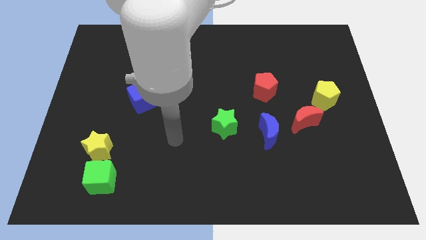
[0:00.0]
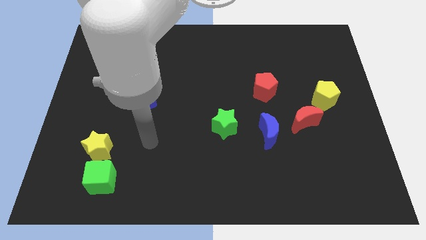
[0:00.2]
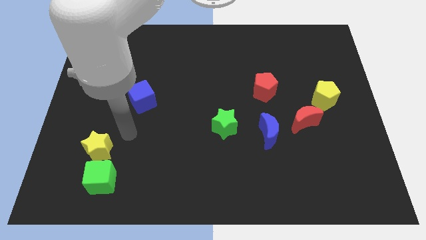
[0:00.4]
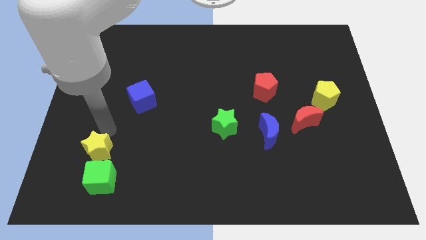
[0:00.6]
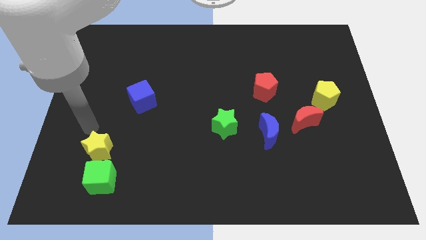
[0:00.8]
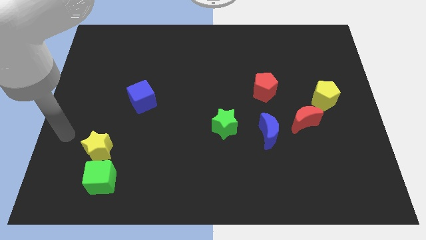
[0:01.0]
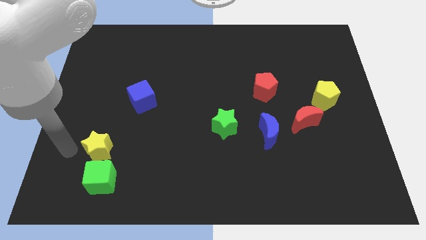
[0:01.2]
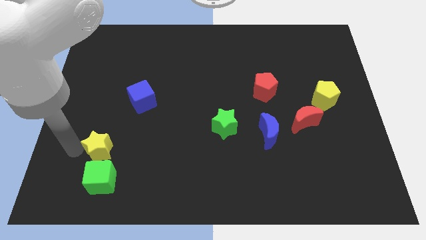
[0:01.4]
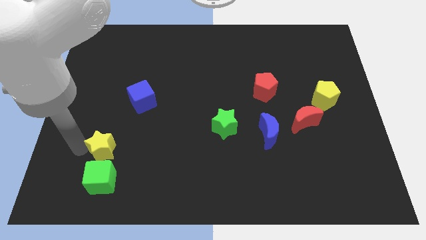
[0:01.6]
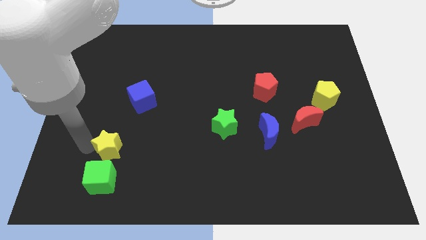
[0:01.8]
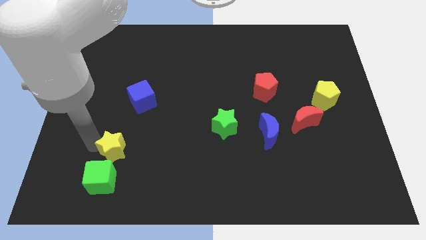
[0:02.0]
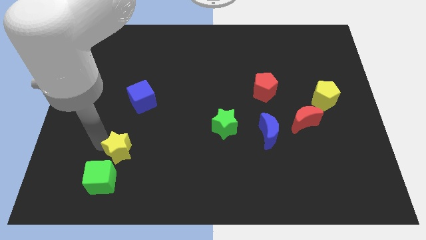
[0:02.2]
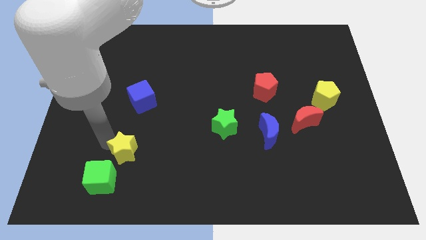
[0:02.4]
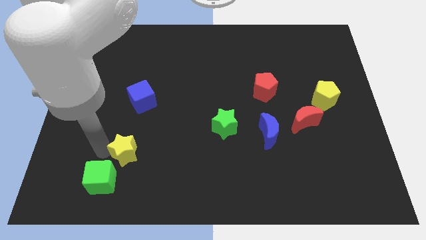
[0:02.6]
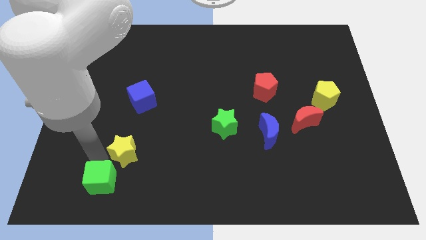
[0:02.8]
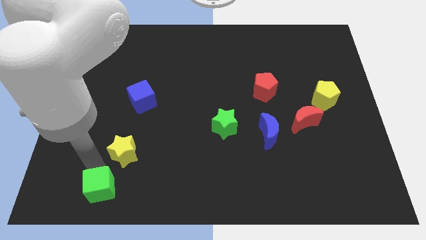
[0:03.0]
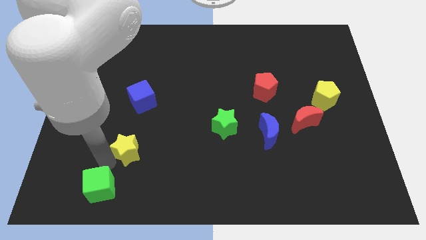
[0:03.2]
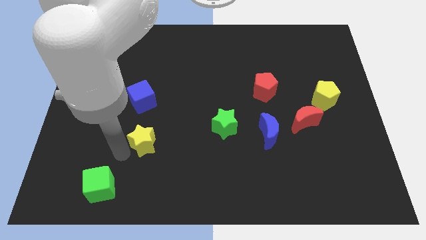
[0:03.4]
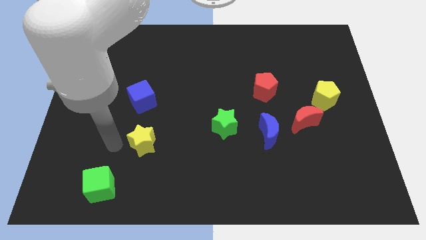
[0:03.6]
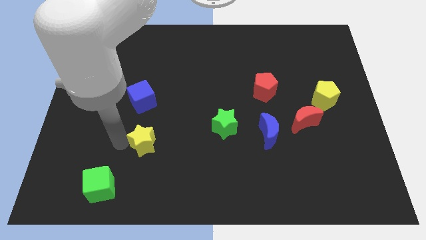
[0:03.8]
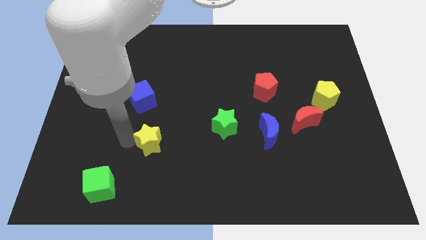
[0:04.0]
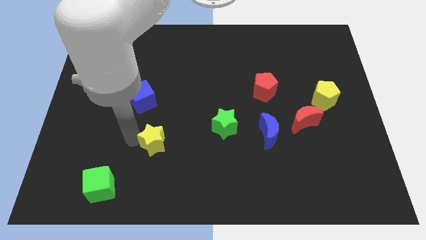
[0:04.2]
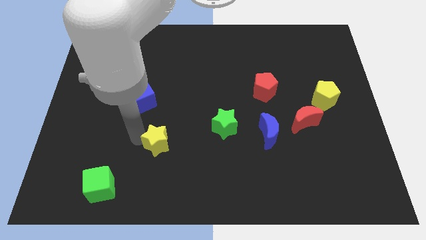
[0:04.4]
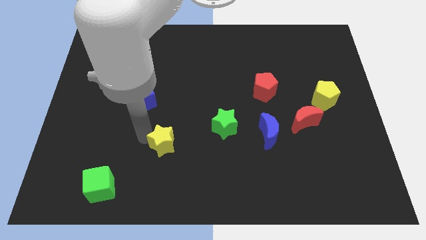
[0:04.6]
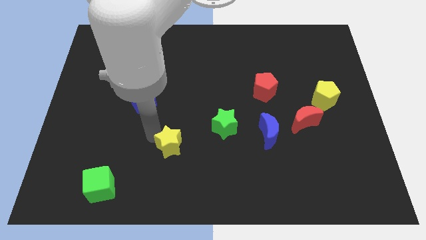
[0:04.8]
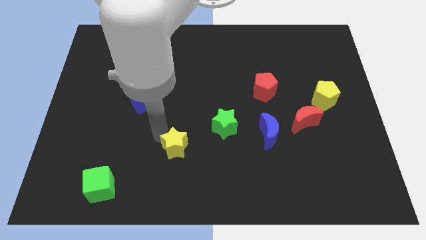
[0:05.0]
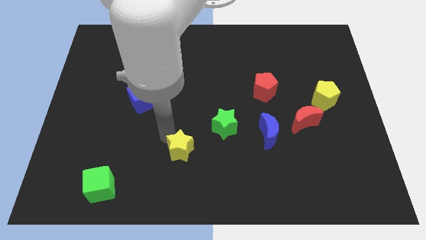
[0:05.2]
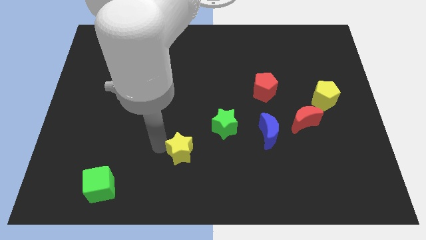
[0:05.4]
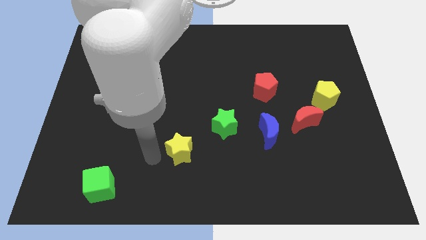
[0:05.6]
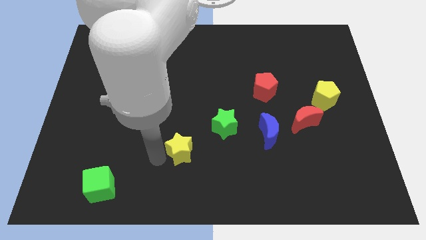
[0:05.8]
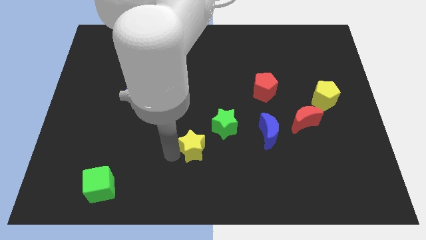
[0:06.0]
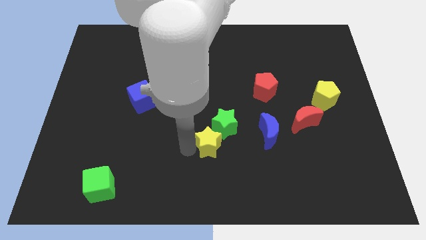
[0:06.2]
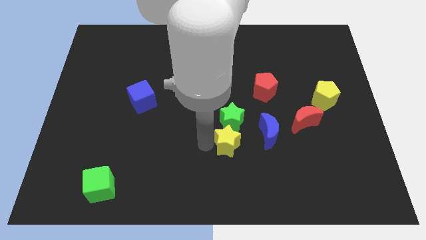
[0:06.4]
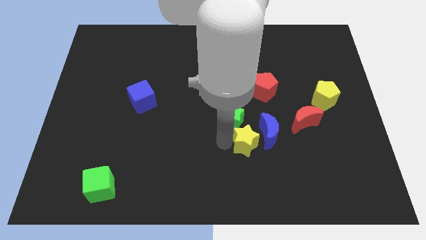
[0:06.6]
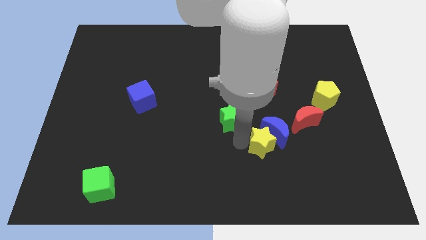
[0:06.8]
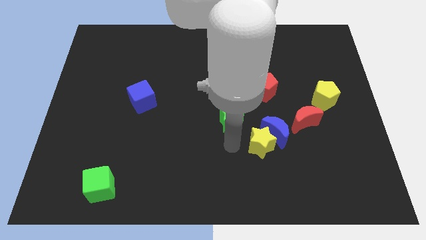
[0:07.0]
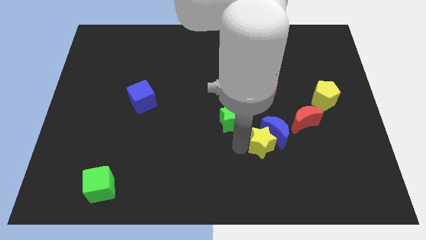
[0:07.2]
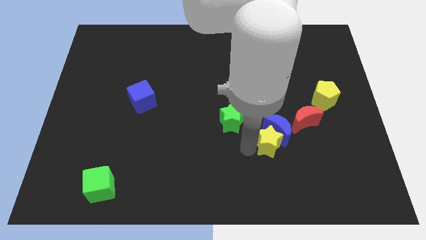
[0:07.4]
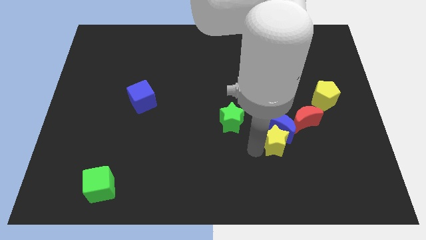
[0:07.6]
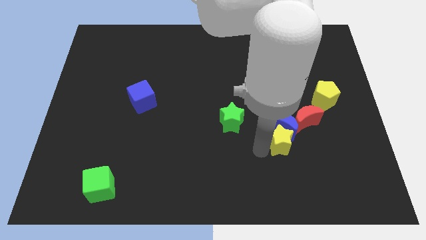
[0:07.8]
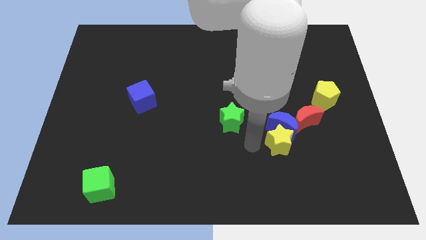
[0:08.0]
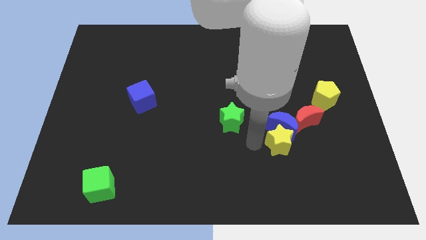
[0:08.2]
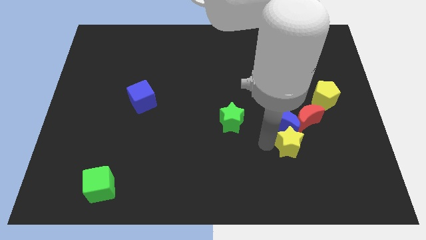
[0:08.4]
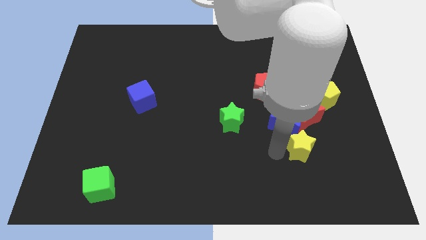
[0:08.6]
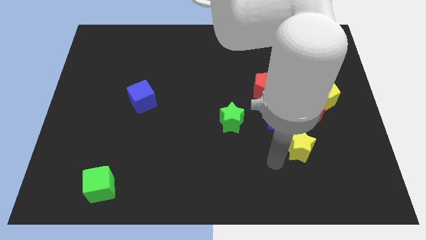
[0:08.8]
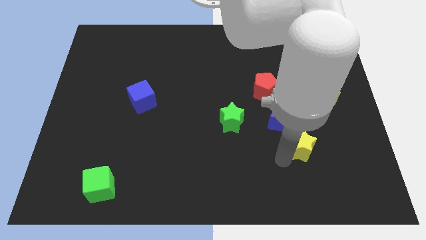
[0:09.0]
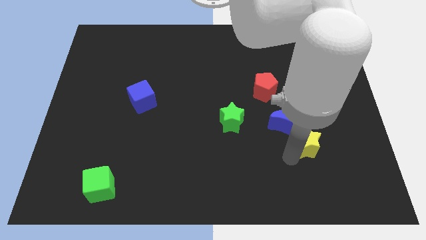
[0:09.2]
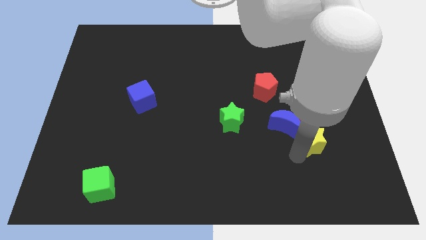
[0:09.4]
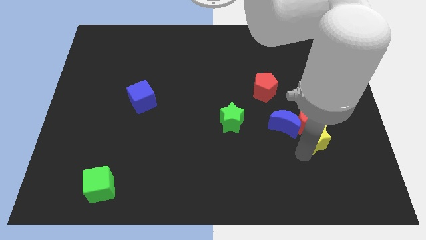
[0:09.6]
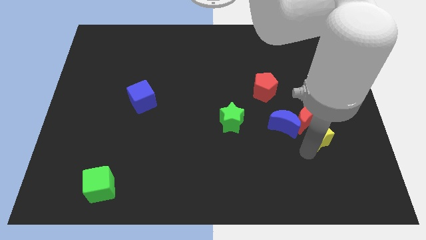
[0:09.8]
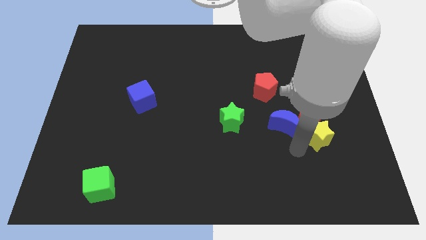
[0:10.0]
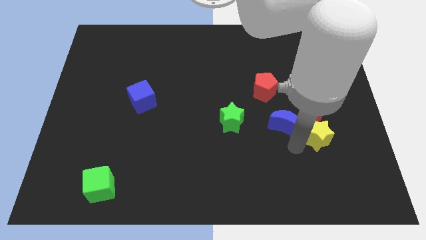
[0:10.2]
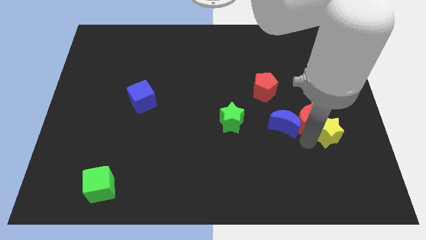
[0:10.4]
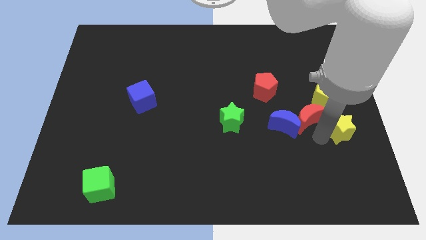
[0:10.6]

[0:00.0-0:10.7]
slide the yellow star to the right side

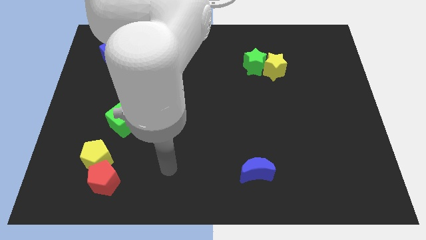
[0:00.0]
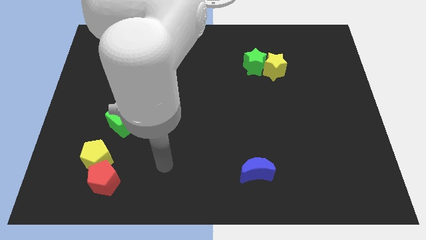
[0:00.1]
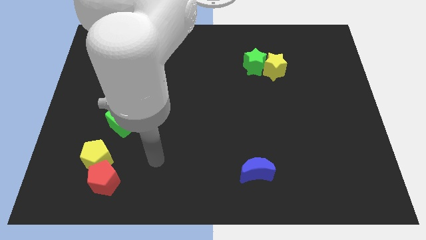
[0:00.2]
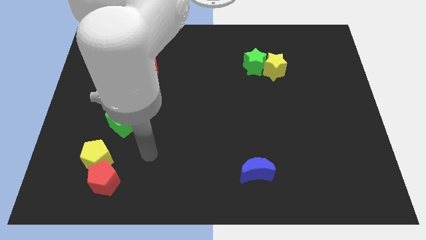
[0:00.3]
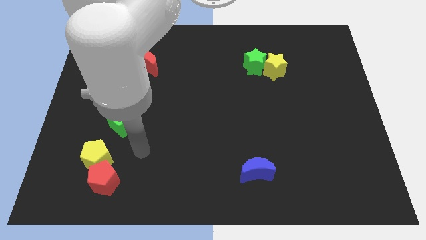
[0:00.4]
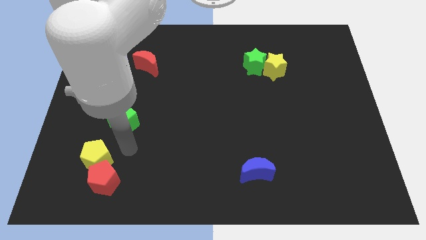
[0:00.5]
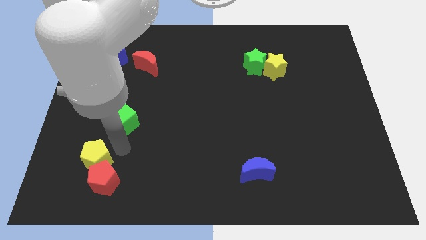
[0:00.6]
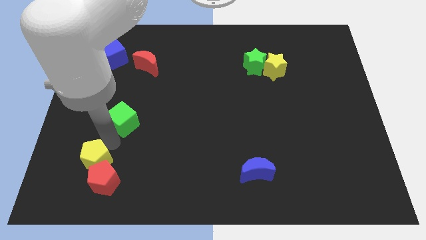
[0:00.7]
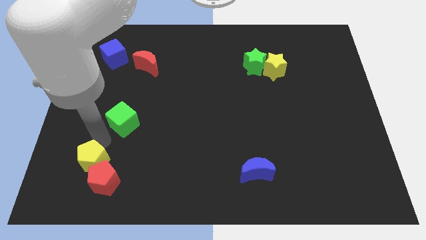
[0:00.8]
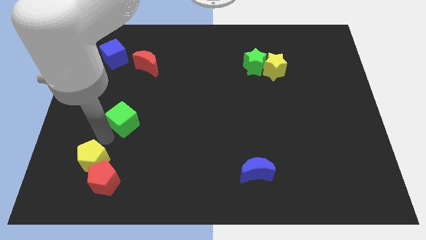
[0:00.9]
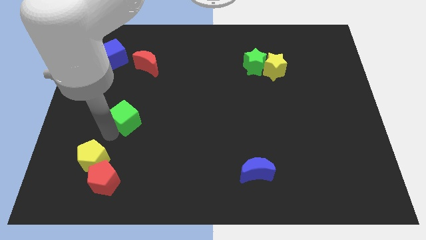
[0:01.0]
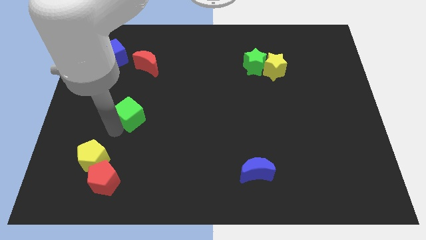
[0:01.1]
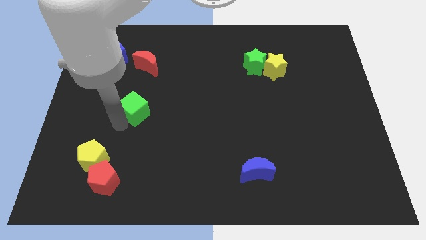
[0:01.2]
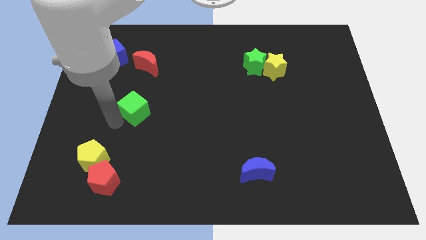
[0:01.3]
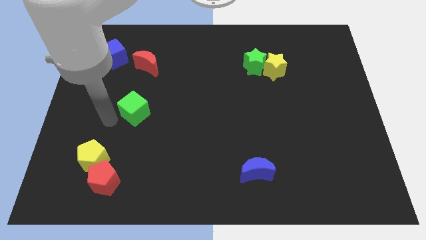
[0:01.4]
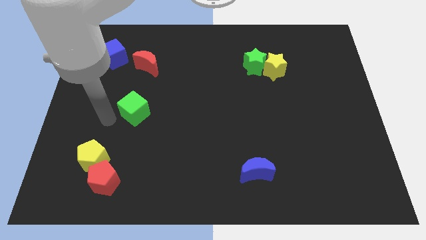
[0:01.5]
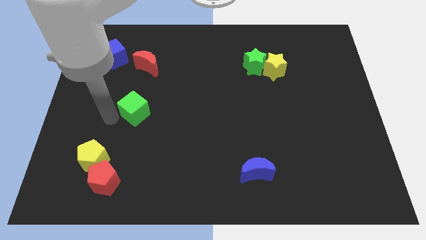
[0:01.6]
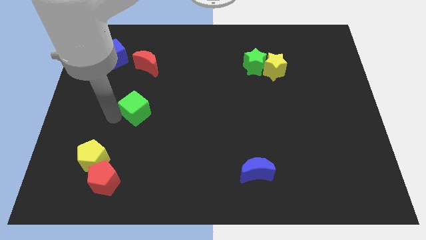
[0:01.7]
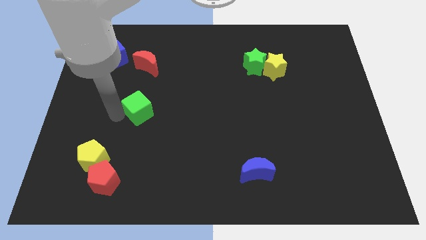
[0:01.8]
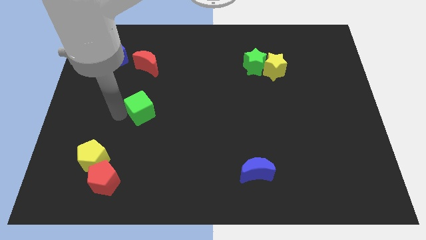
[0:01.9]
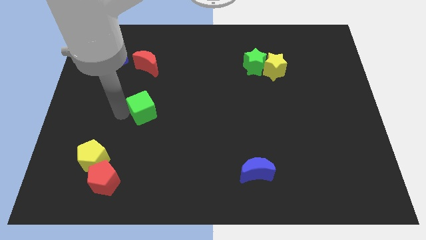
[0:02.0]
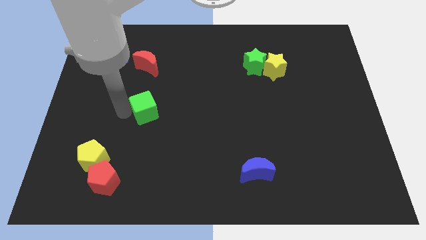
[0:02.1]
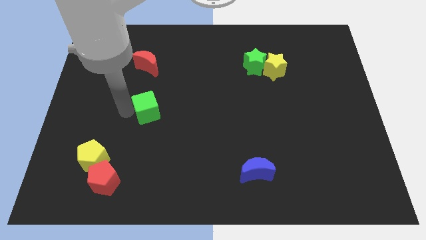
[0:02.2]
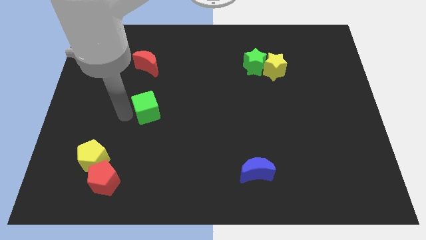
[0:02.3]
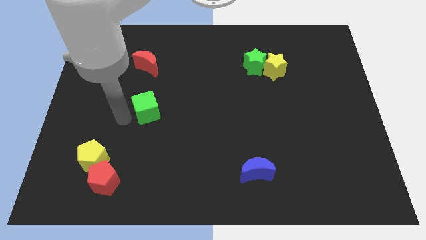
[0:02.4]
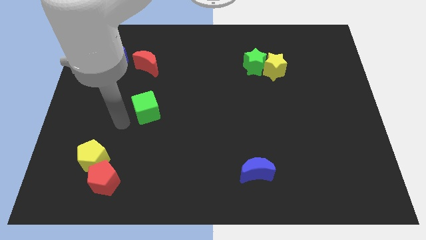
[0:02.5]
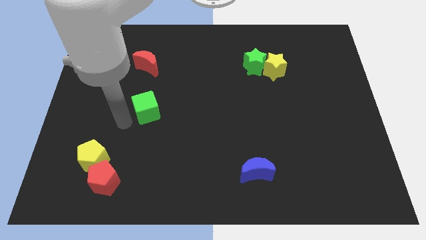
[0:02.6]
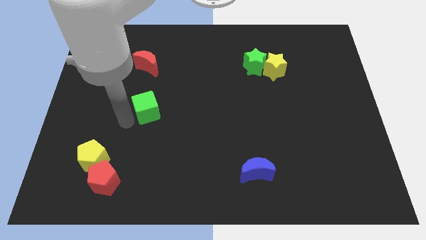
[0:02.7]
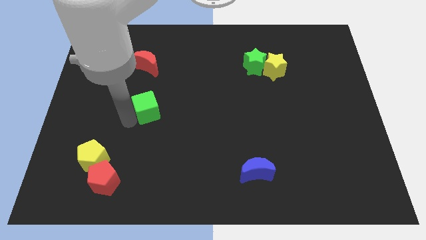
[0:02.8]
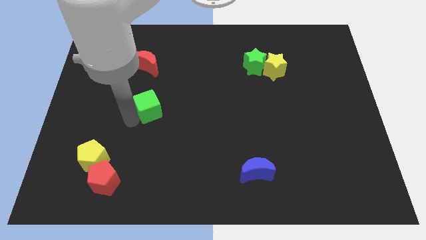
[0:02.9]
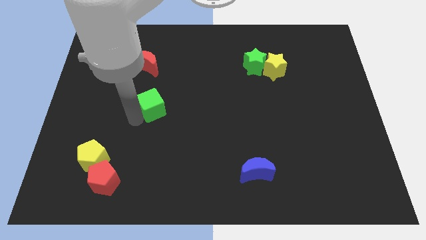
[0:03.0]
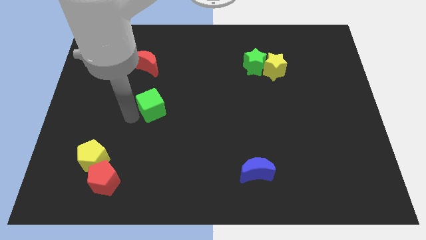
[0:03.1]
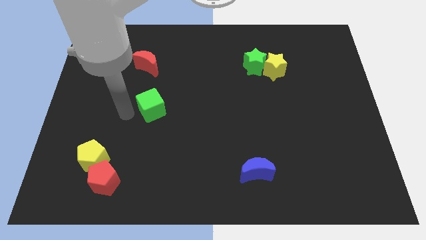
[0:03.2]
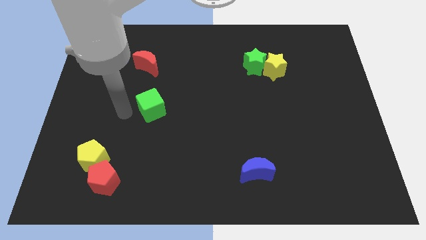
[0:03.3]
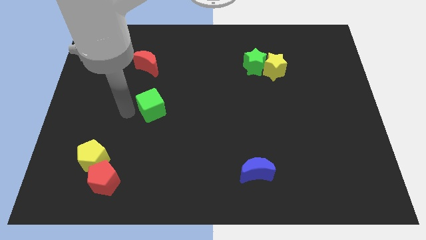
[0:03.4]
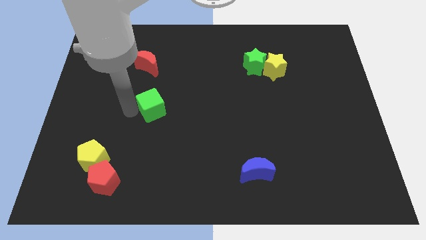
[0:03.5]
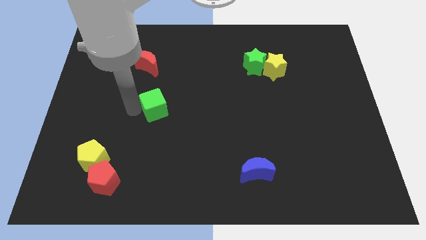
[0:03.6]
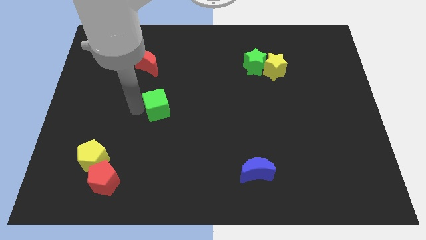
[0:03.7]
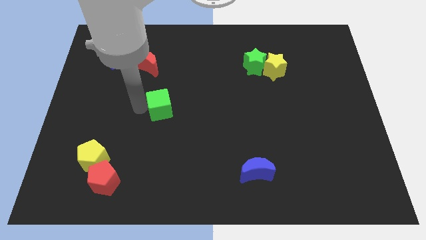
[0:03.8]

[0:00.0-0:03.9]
move the green cube to the center of the board
